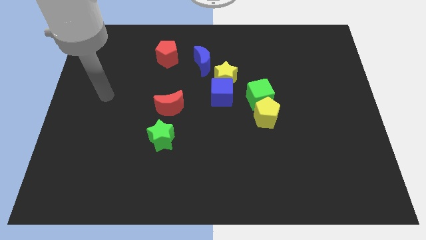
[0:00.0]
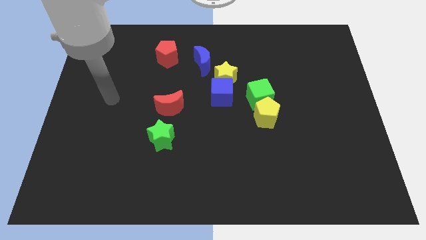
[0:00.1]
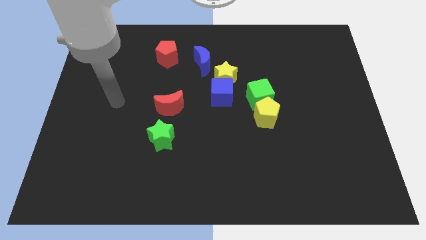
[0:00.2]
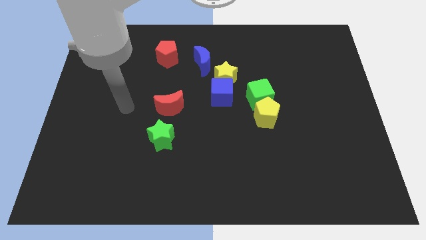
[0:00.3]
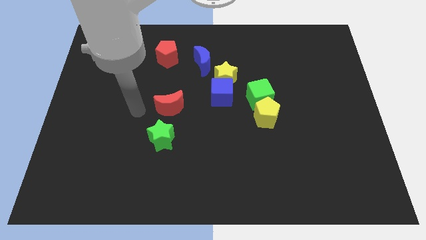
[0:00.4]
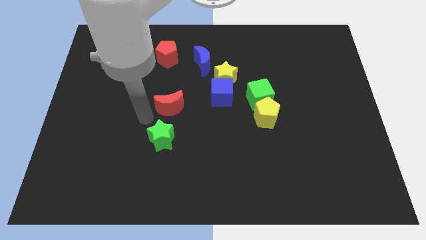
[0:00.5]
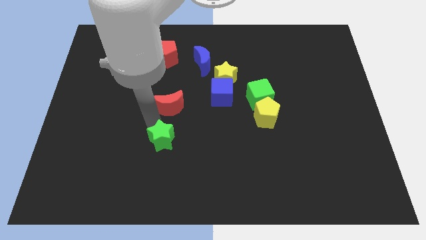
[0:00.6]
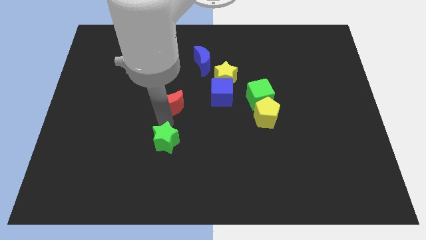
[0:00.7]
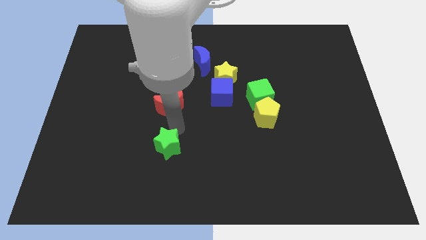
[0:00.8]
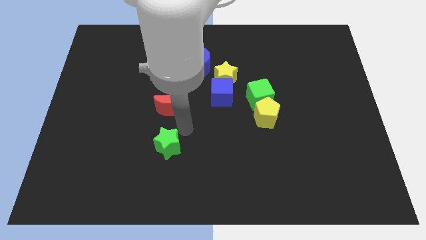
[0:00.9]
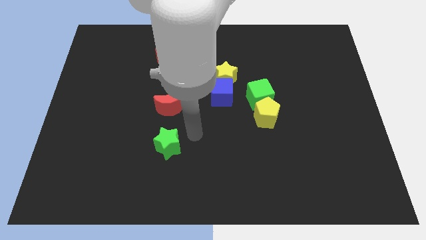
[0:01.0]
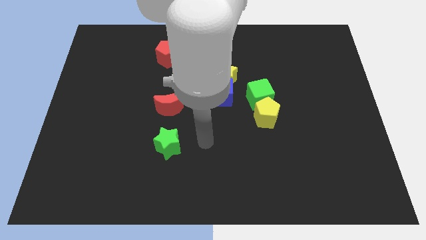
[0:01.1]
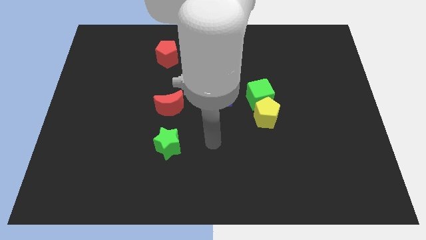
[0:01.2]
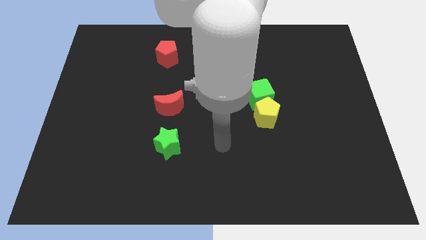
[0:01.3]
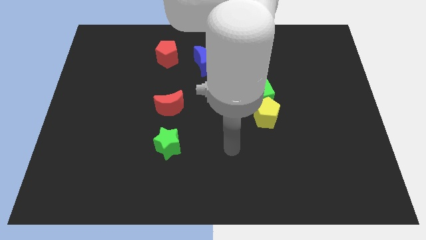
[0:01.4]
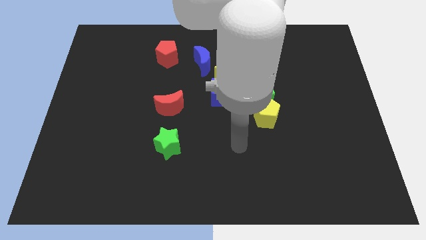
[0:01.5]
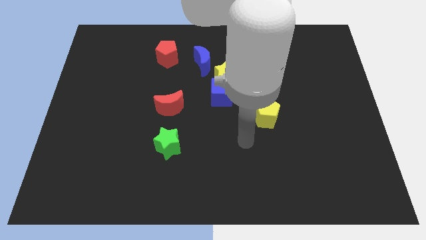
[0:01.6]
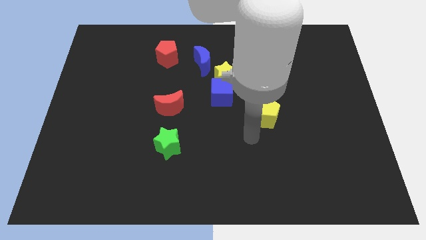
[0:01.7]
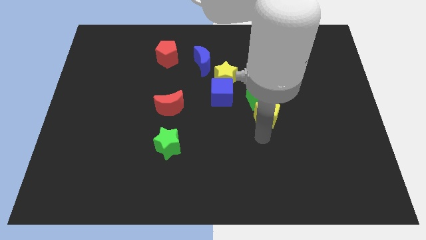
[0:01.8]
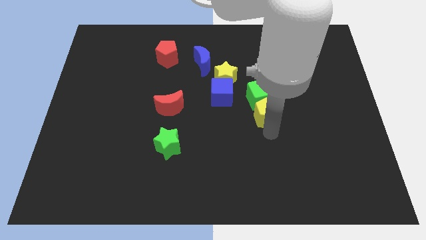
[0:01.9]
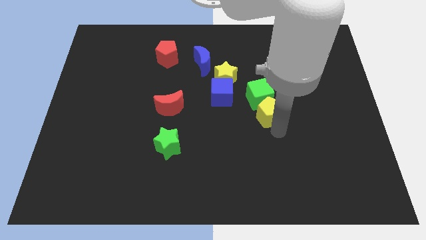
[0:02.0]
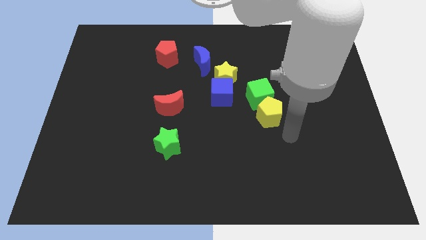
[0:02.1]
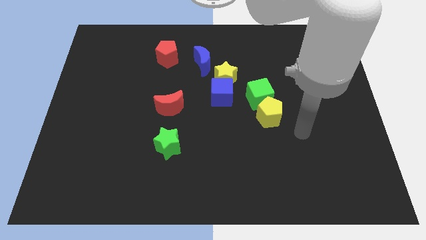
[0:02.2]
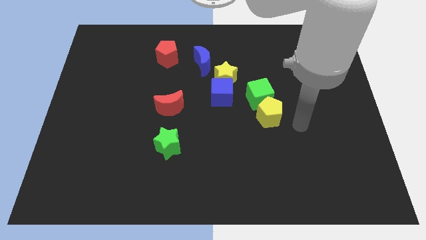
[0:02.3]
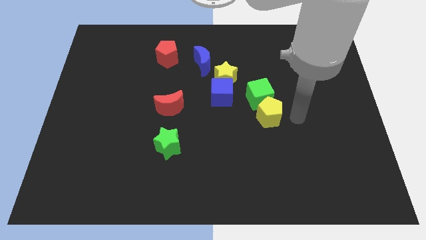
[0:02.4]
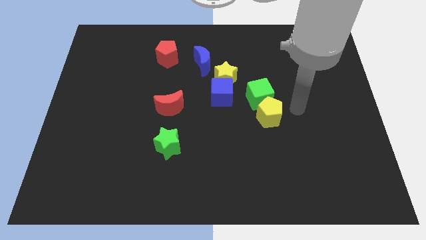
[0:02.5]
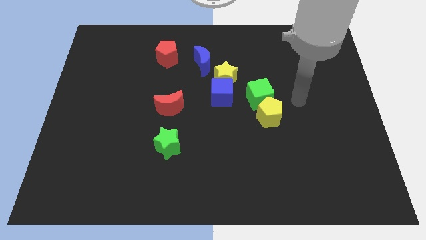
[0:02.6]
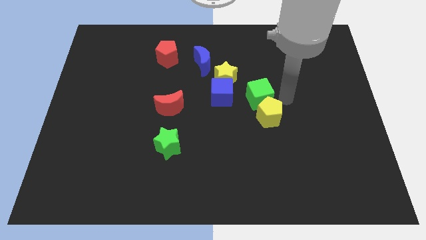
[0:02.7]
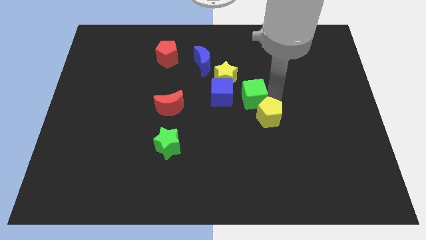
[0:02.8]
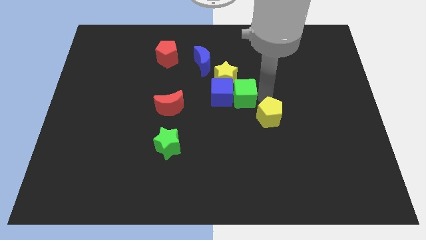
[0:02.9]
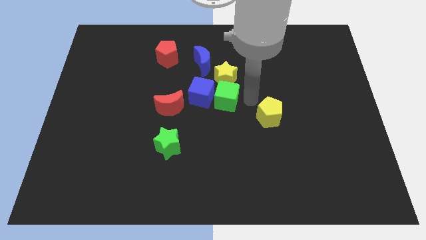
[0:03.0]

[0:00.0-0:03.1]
move the yellow pentagon away from the green cube

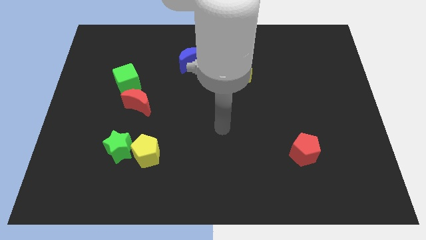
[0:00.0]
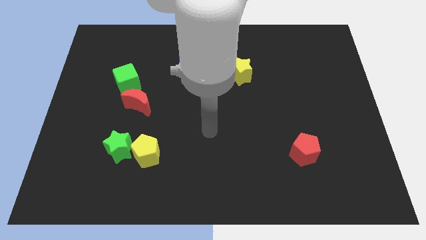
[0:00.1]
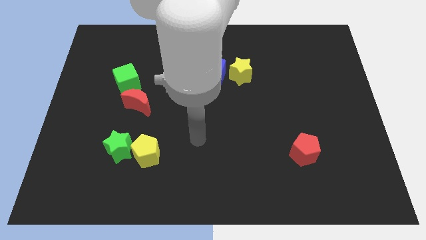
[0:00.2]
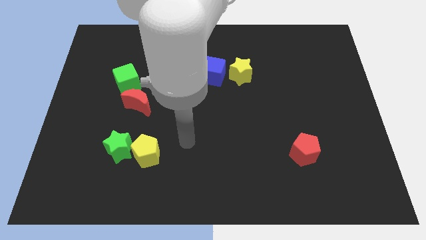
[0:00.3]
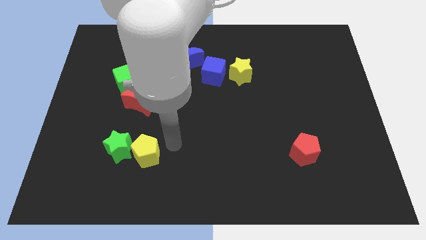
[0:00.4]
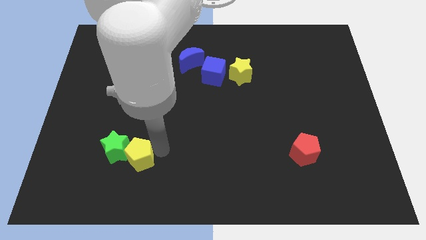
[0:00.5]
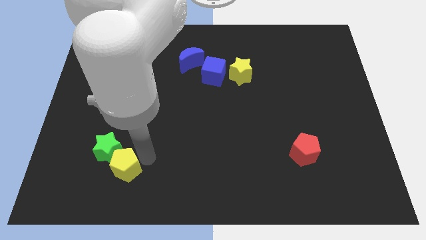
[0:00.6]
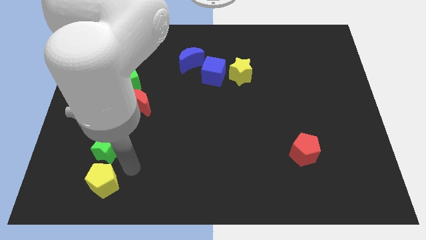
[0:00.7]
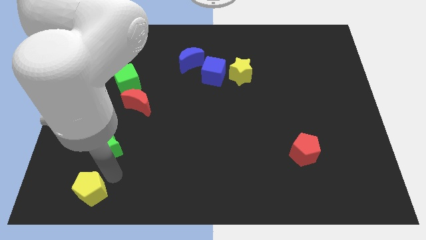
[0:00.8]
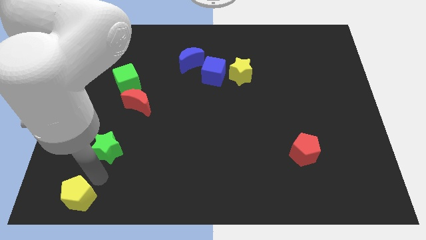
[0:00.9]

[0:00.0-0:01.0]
move the green star away from the yellow pentagon

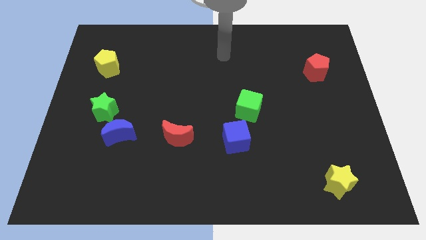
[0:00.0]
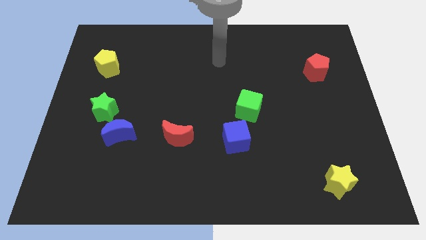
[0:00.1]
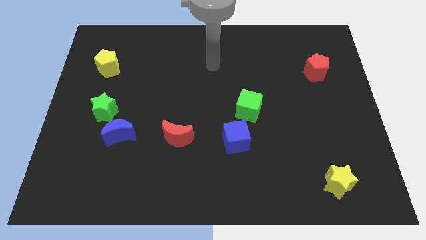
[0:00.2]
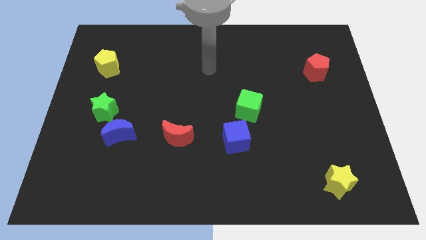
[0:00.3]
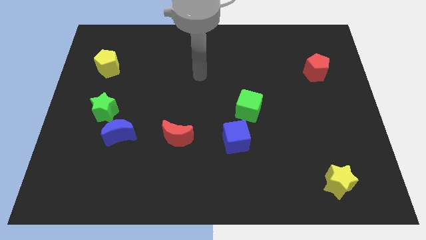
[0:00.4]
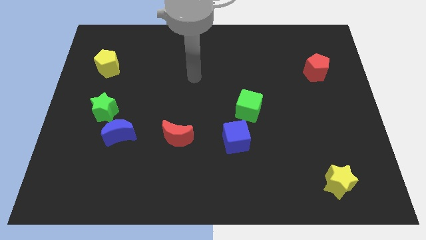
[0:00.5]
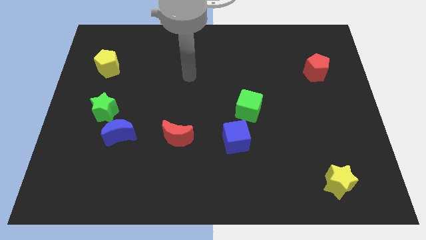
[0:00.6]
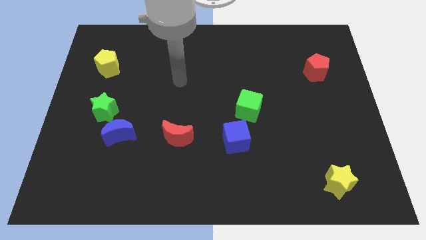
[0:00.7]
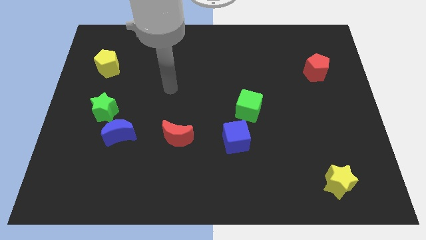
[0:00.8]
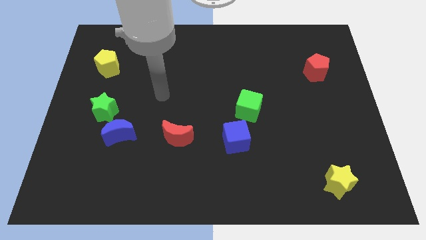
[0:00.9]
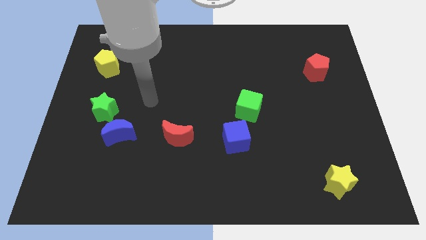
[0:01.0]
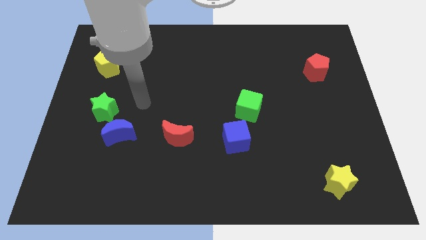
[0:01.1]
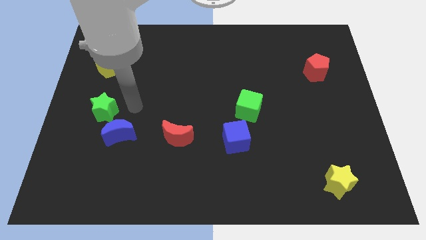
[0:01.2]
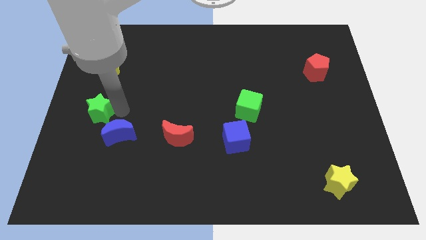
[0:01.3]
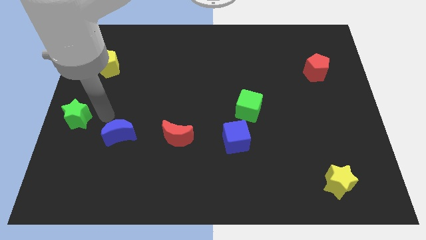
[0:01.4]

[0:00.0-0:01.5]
pull the blue moon apart from the green star

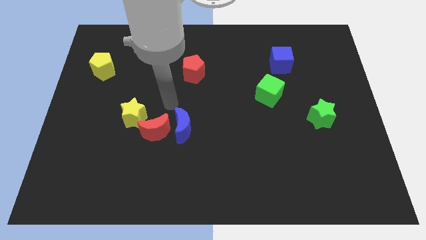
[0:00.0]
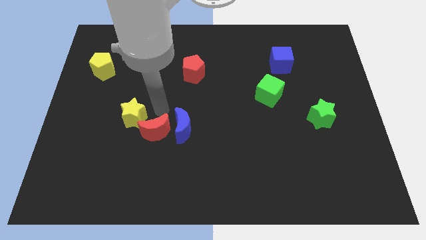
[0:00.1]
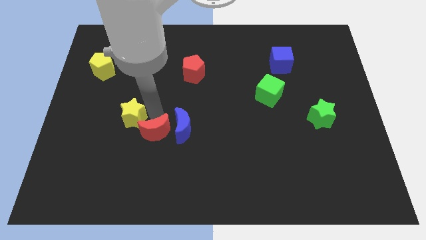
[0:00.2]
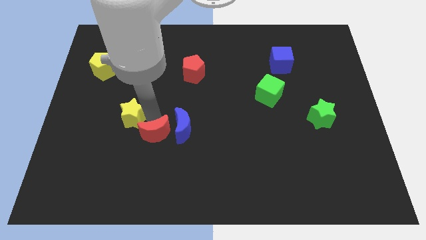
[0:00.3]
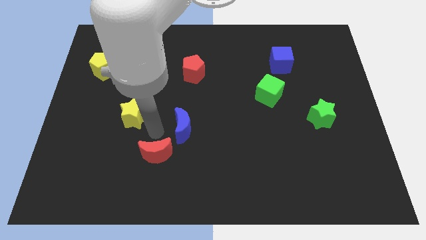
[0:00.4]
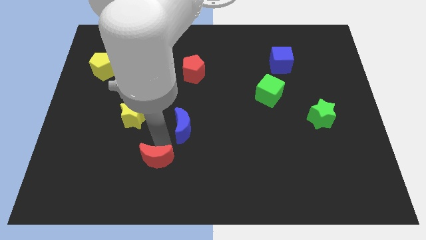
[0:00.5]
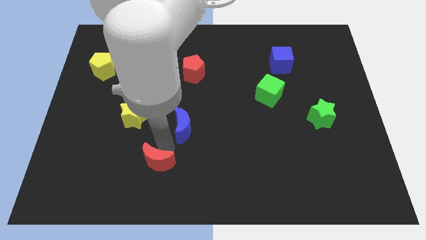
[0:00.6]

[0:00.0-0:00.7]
pull the blue moon apart from the red moon

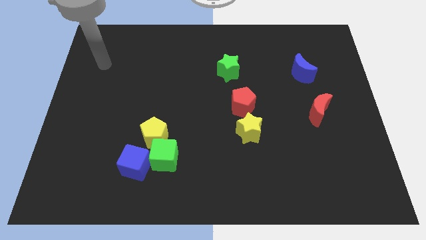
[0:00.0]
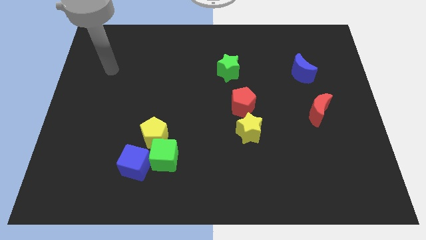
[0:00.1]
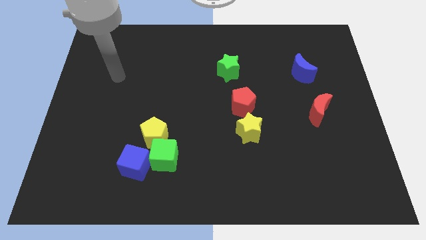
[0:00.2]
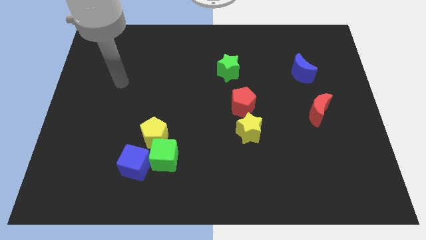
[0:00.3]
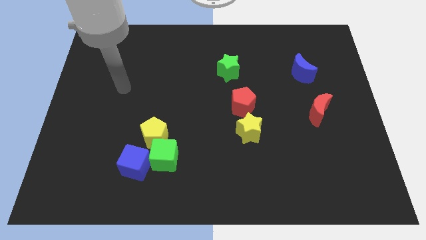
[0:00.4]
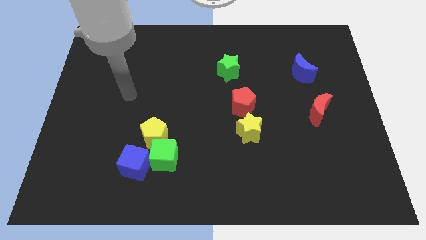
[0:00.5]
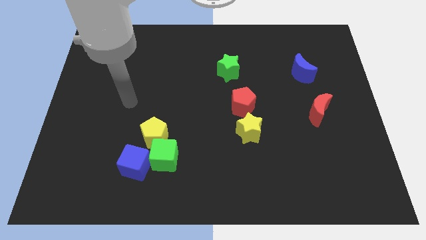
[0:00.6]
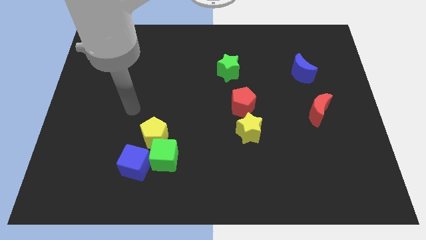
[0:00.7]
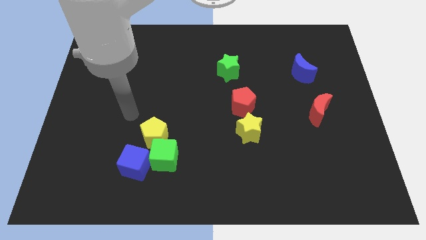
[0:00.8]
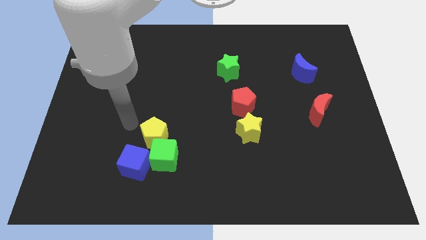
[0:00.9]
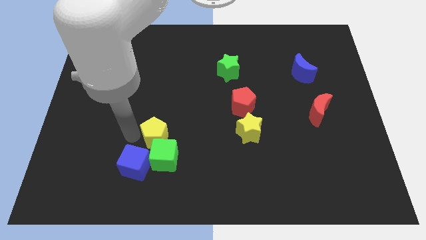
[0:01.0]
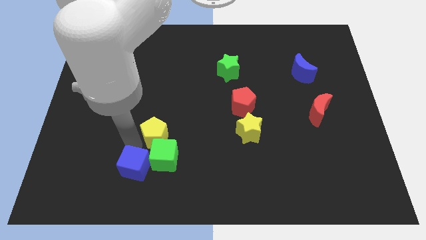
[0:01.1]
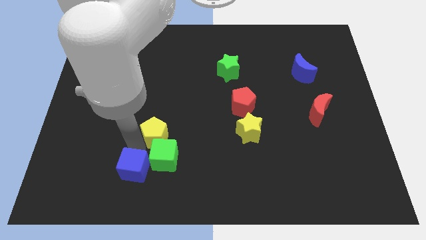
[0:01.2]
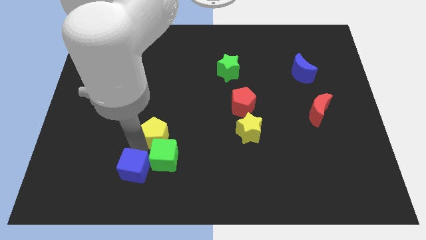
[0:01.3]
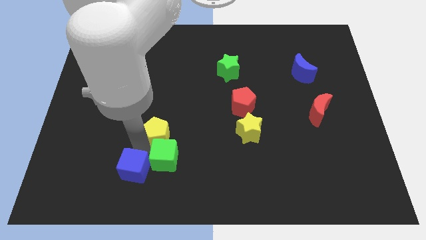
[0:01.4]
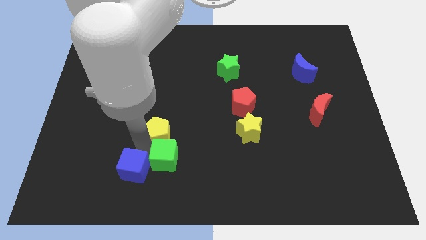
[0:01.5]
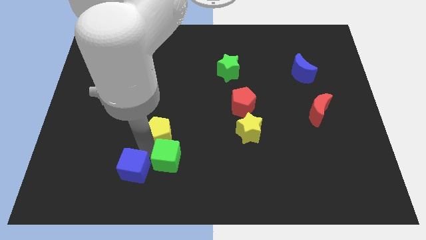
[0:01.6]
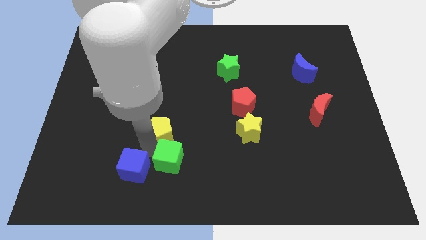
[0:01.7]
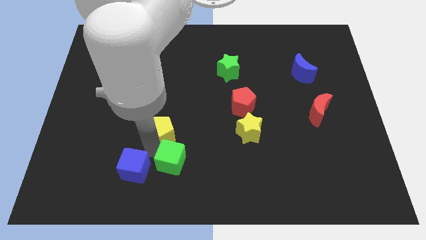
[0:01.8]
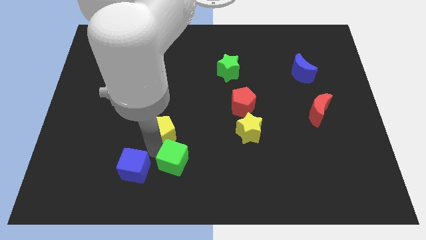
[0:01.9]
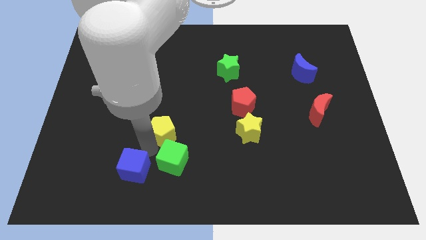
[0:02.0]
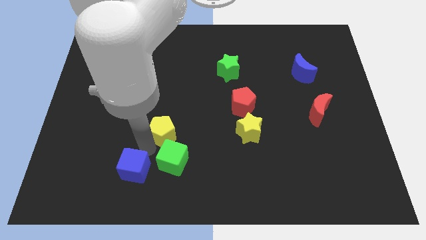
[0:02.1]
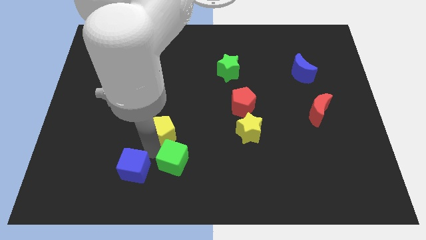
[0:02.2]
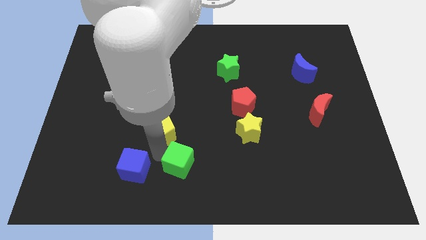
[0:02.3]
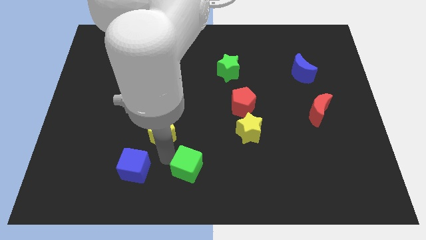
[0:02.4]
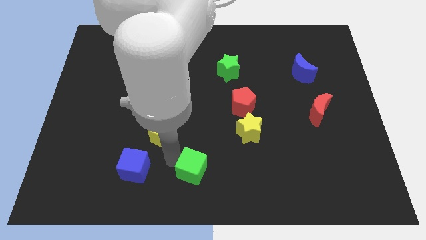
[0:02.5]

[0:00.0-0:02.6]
pull the green cube apart from the yellow pentagon and blue cube

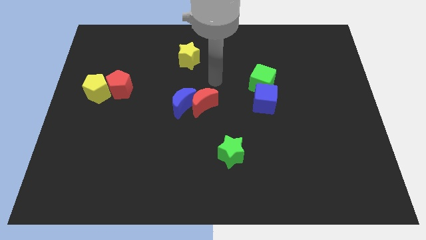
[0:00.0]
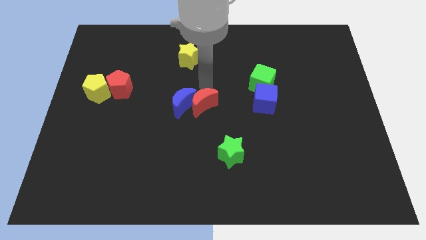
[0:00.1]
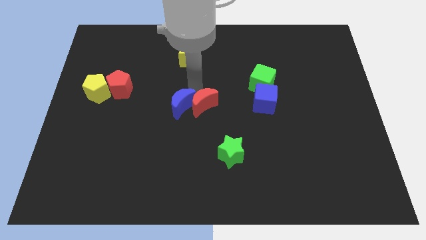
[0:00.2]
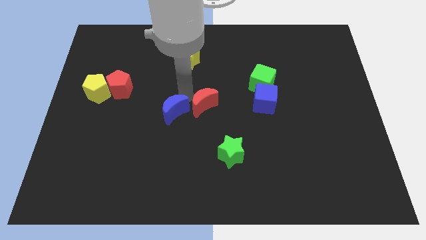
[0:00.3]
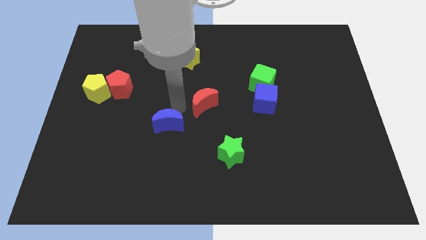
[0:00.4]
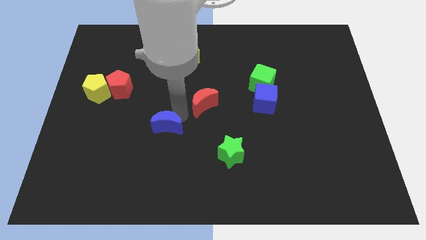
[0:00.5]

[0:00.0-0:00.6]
move the red moon away from the blue moon
